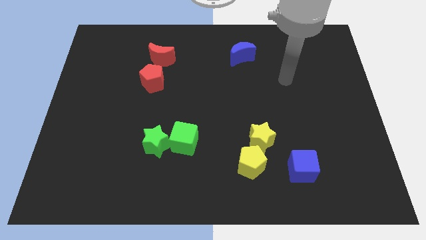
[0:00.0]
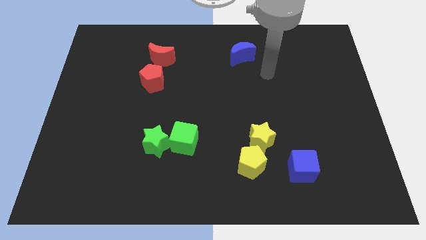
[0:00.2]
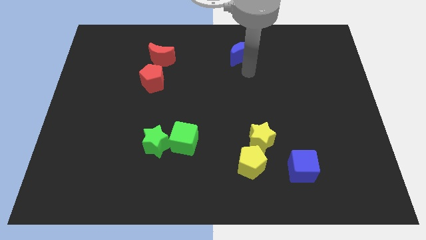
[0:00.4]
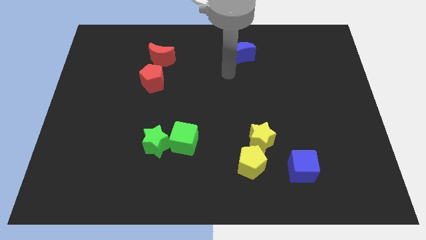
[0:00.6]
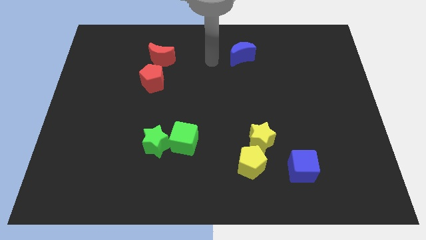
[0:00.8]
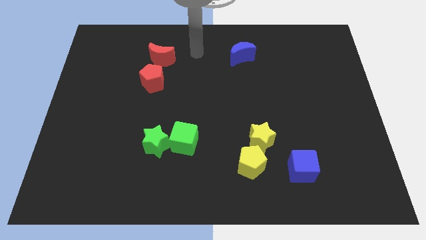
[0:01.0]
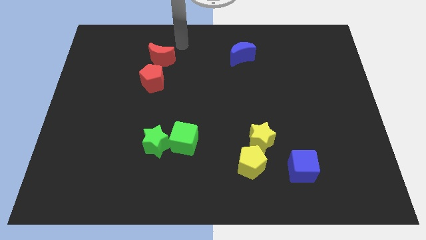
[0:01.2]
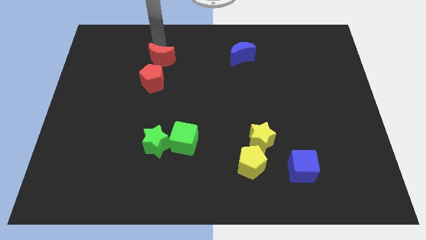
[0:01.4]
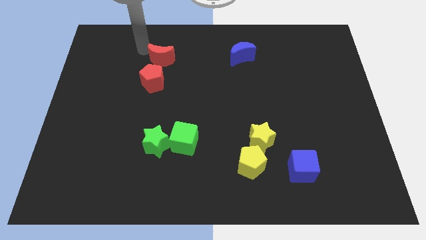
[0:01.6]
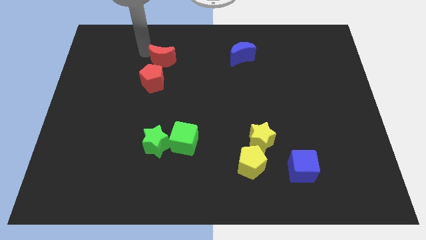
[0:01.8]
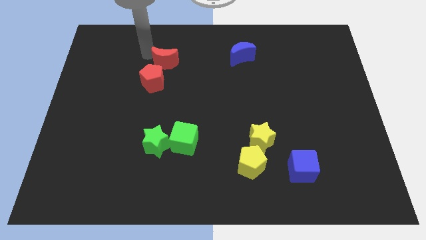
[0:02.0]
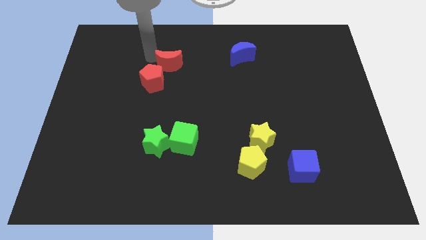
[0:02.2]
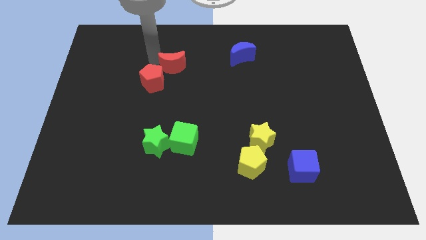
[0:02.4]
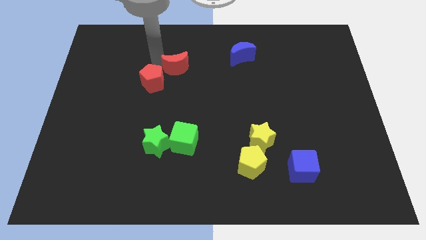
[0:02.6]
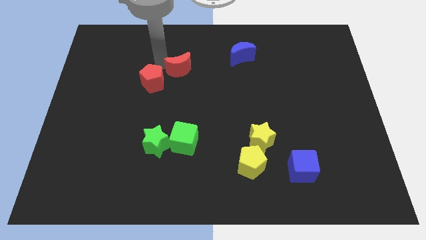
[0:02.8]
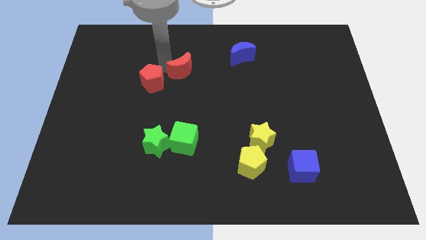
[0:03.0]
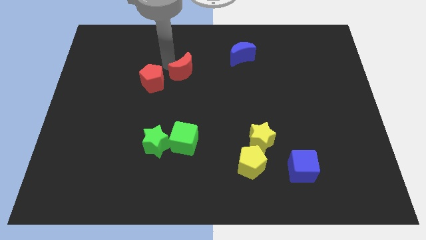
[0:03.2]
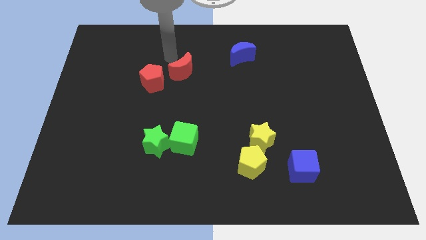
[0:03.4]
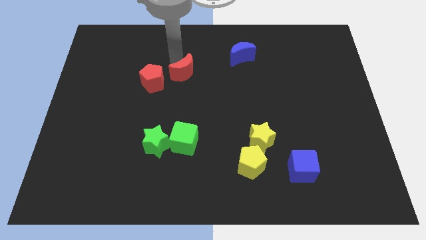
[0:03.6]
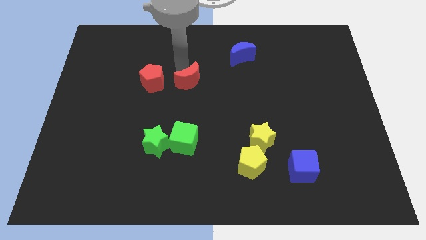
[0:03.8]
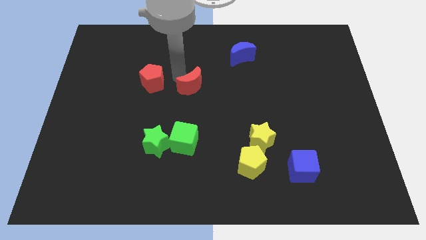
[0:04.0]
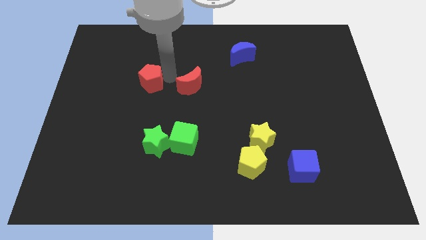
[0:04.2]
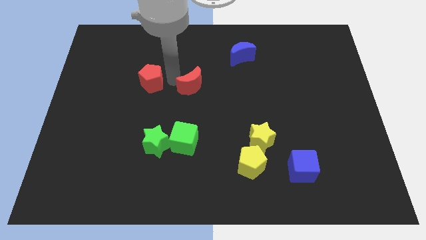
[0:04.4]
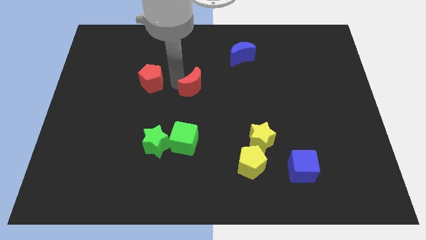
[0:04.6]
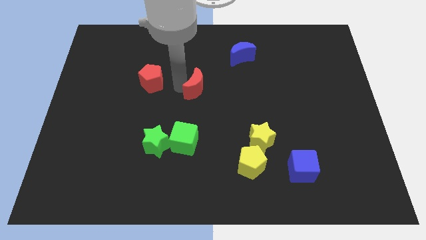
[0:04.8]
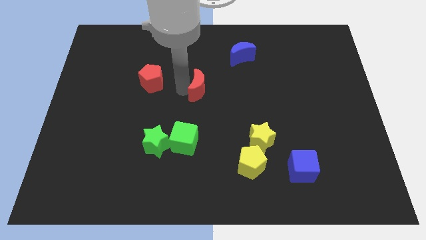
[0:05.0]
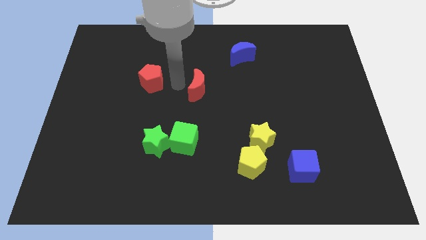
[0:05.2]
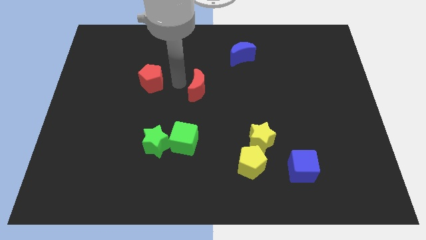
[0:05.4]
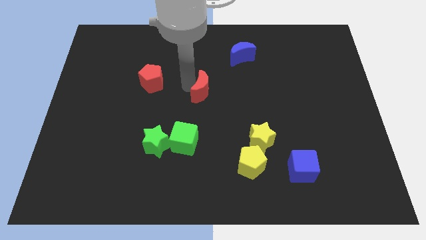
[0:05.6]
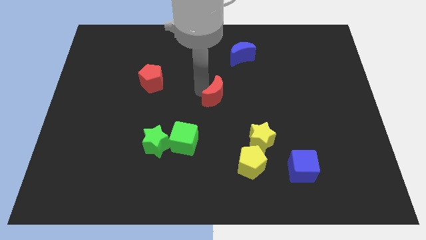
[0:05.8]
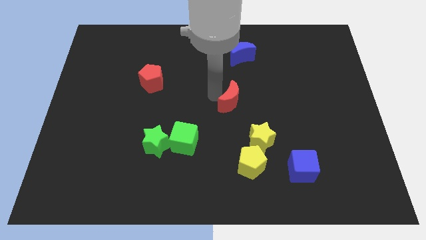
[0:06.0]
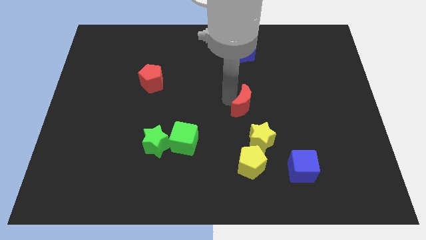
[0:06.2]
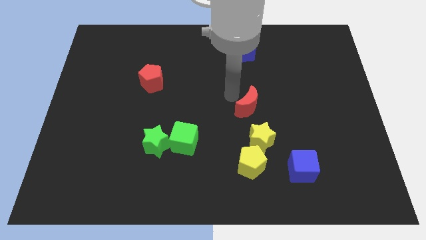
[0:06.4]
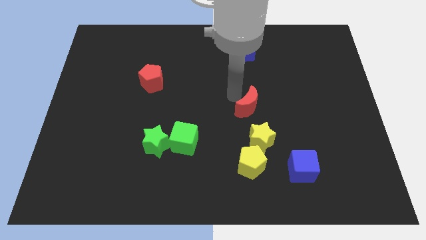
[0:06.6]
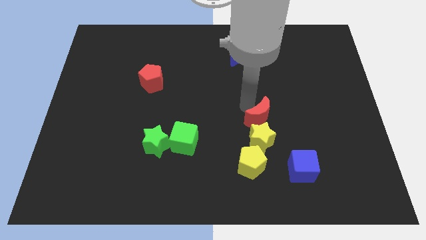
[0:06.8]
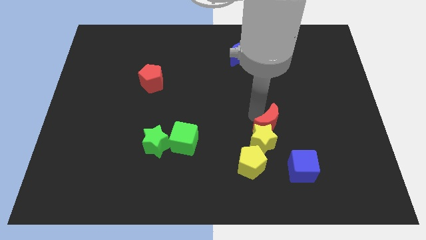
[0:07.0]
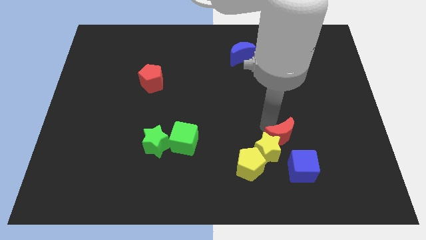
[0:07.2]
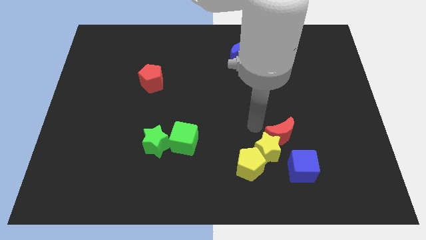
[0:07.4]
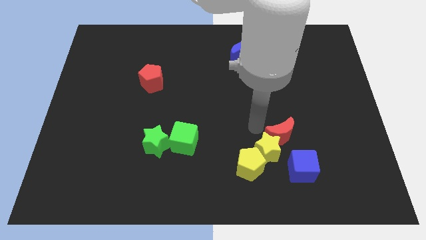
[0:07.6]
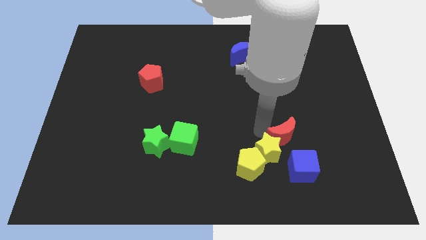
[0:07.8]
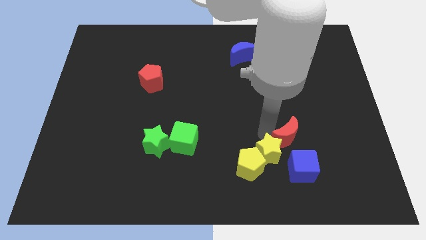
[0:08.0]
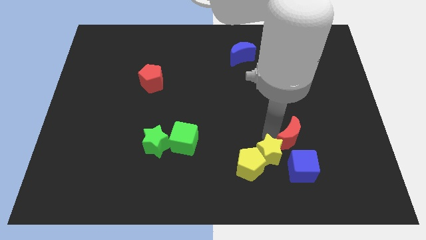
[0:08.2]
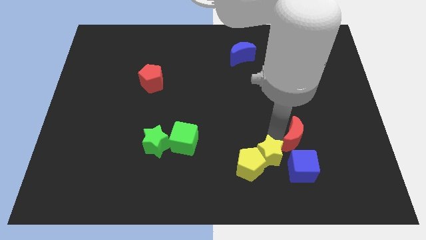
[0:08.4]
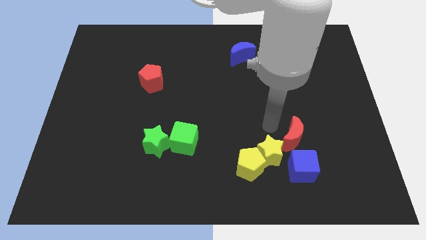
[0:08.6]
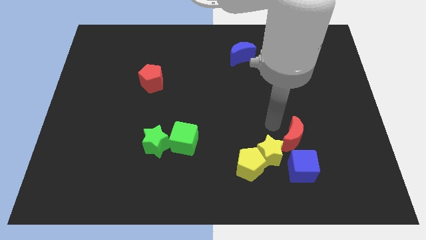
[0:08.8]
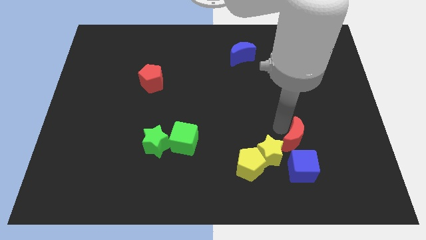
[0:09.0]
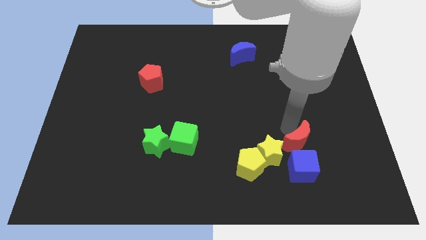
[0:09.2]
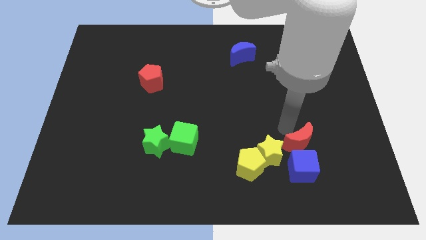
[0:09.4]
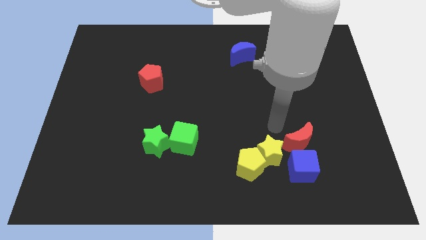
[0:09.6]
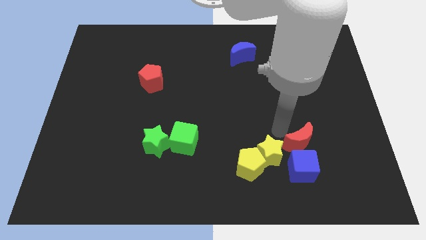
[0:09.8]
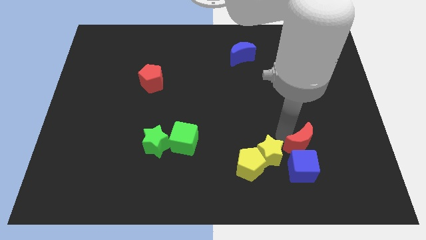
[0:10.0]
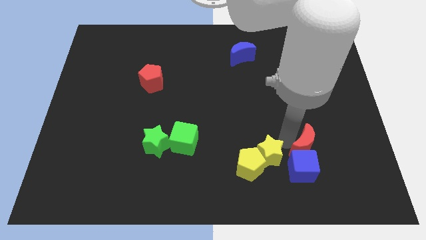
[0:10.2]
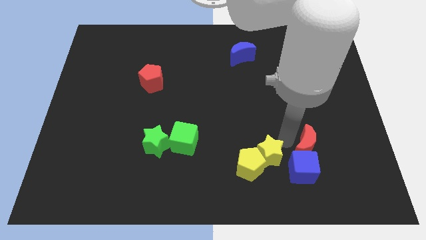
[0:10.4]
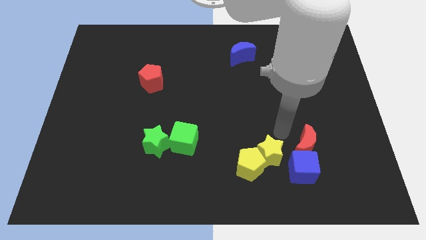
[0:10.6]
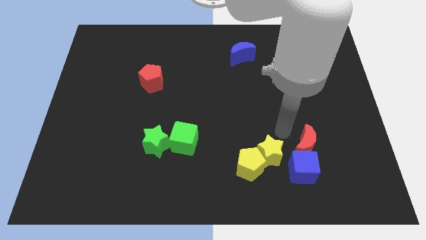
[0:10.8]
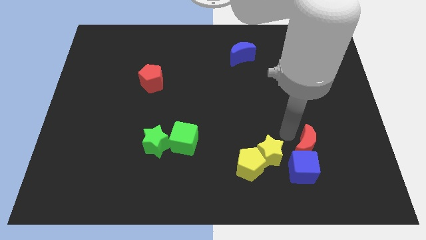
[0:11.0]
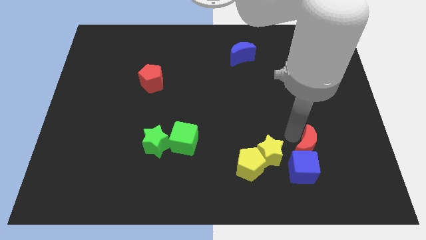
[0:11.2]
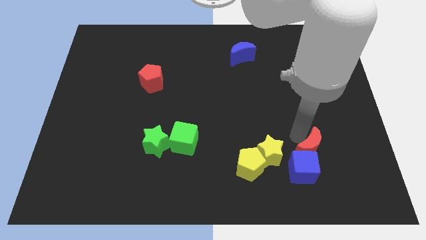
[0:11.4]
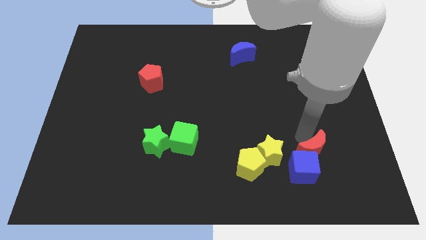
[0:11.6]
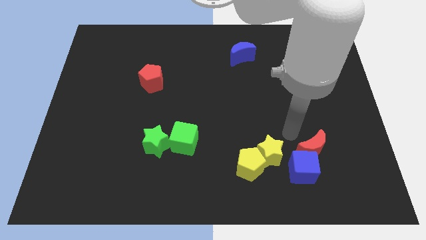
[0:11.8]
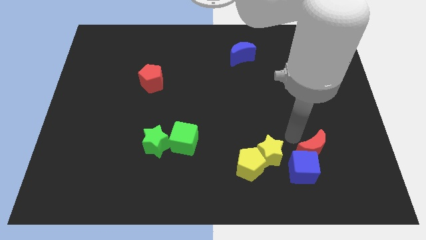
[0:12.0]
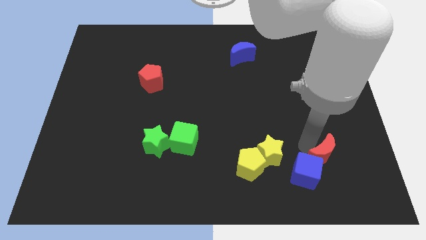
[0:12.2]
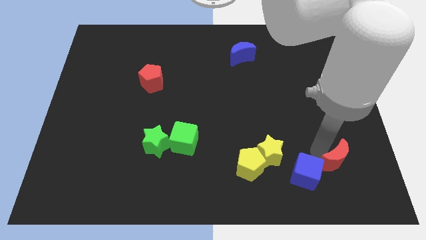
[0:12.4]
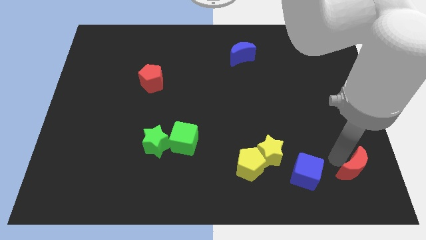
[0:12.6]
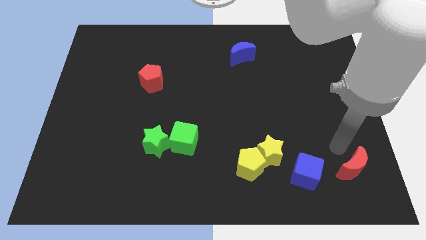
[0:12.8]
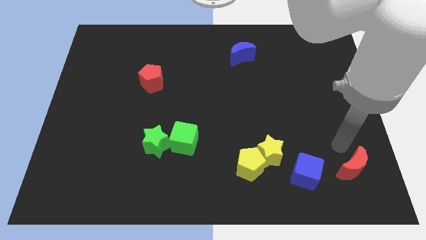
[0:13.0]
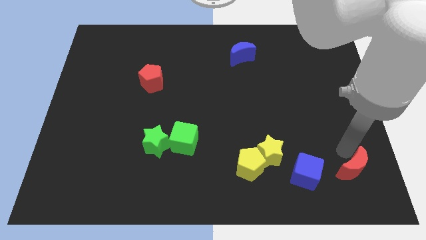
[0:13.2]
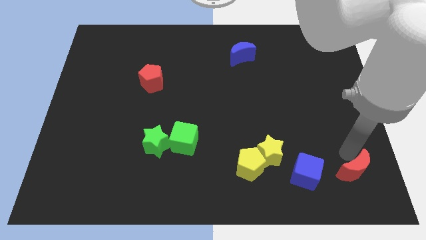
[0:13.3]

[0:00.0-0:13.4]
slide the red moon to the bottom right corner

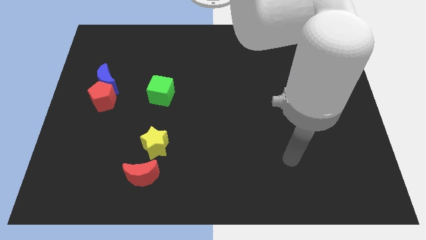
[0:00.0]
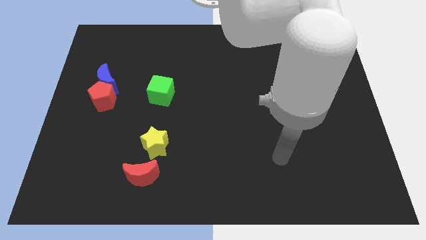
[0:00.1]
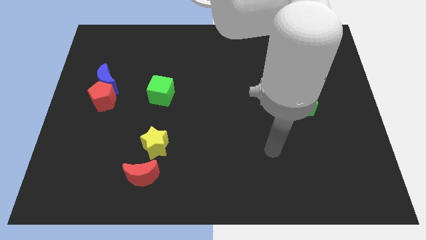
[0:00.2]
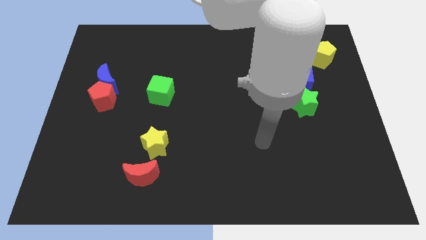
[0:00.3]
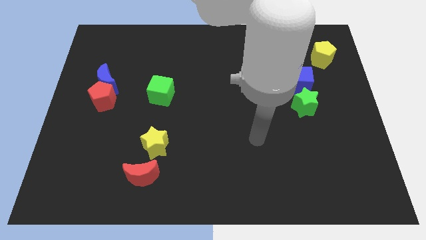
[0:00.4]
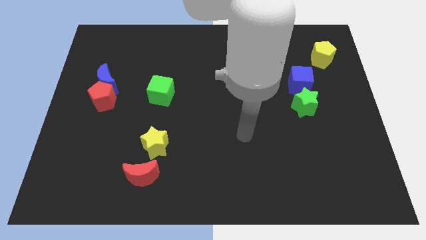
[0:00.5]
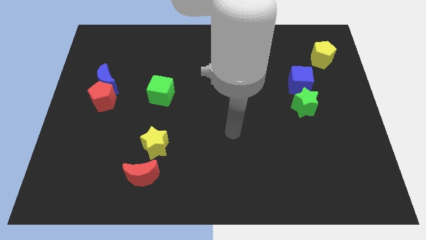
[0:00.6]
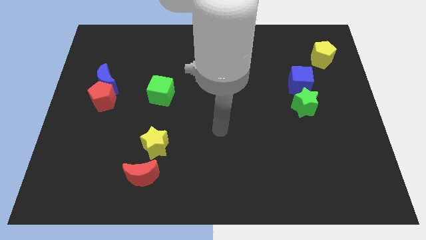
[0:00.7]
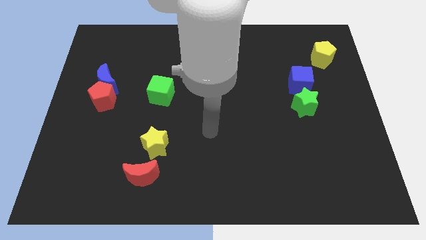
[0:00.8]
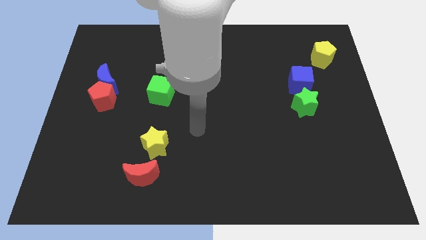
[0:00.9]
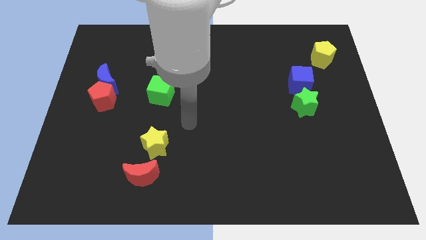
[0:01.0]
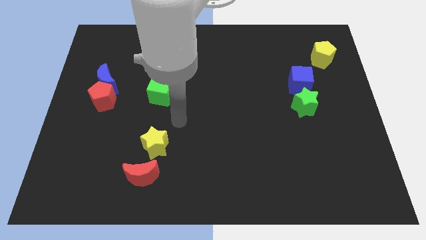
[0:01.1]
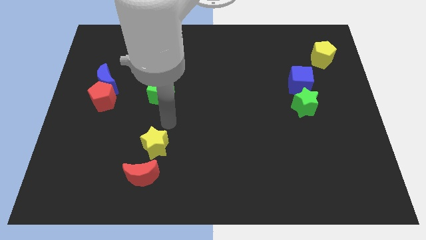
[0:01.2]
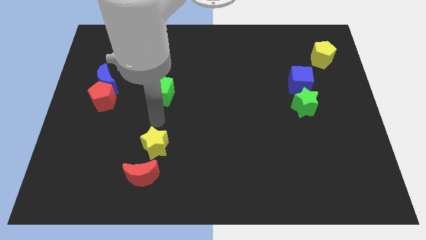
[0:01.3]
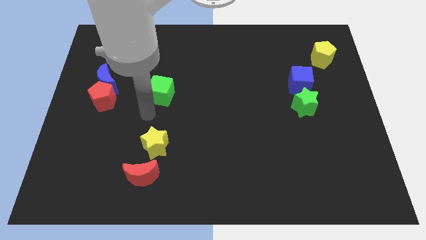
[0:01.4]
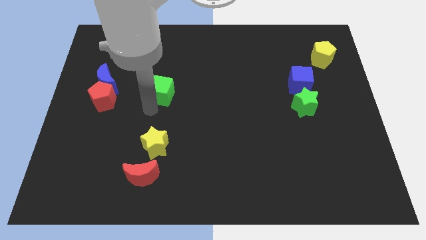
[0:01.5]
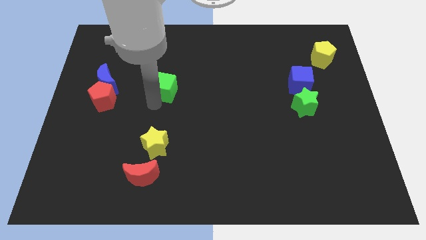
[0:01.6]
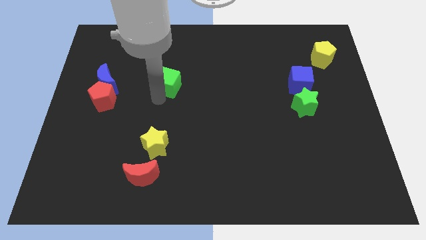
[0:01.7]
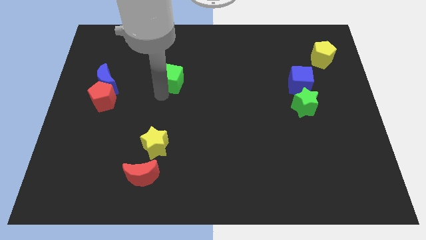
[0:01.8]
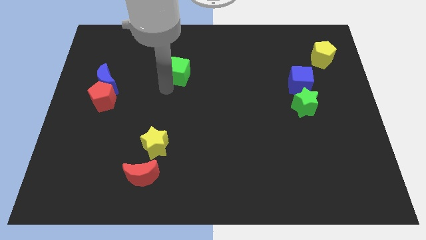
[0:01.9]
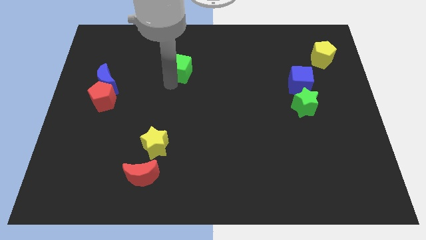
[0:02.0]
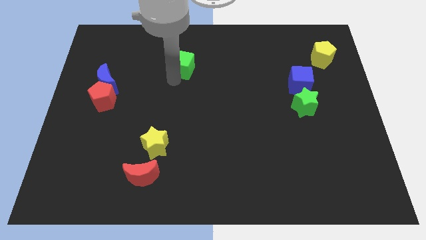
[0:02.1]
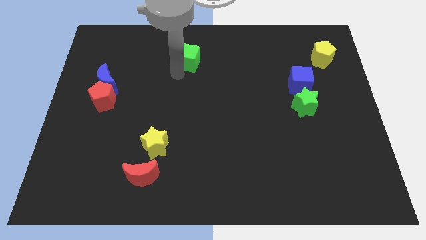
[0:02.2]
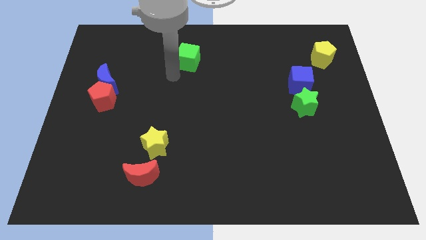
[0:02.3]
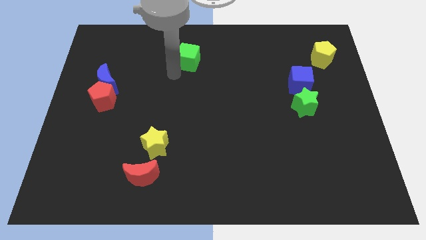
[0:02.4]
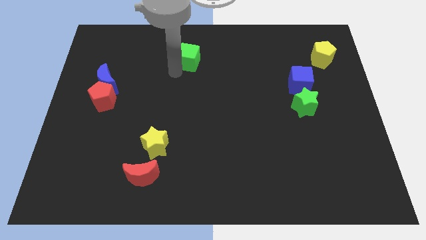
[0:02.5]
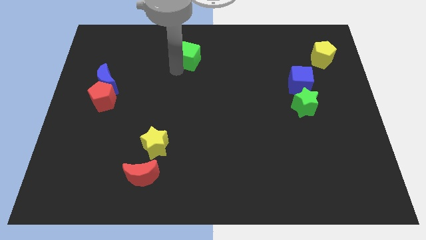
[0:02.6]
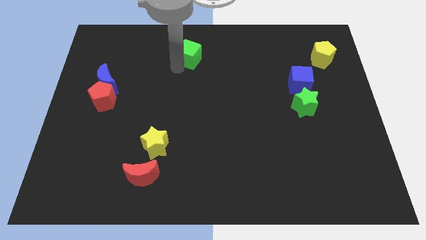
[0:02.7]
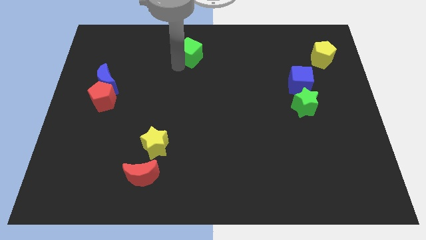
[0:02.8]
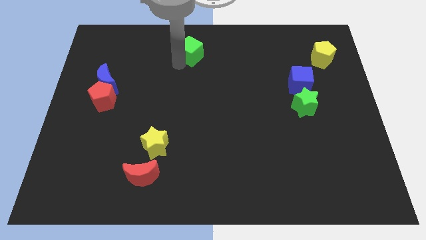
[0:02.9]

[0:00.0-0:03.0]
put the green cube to the top
